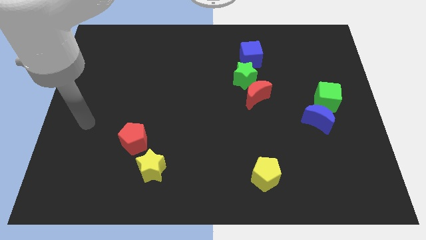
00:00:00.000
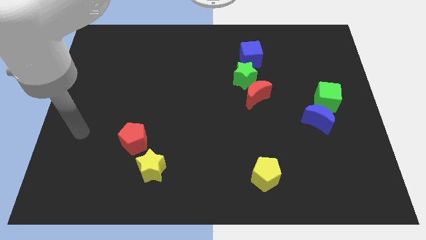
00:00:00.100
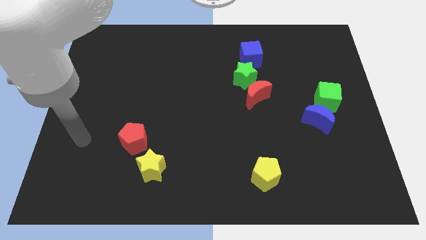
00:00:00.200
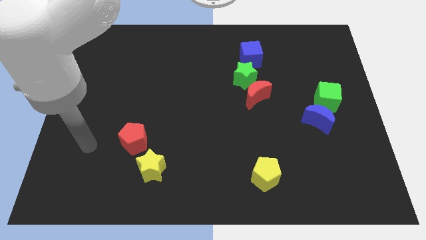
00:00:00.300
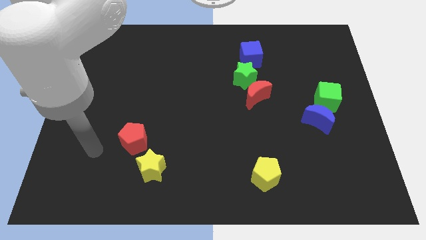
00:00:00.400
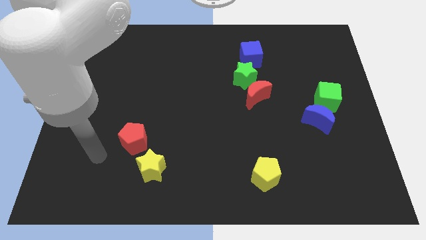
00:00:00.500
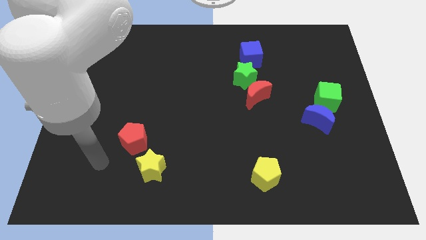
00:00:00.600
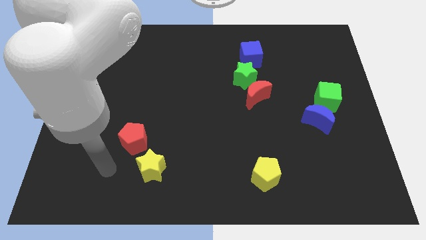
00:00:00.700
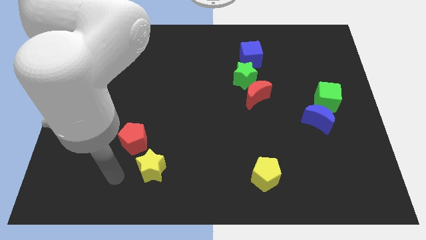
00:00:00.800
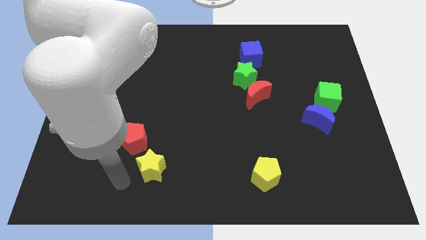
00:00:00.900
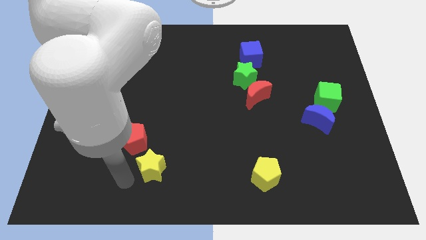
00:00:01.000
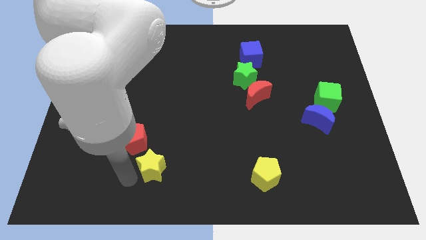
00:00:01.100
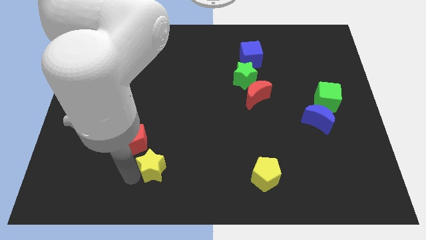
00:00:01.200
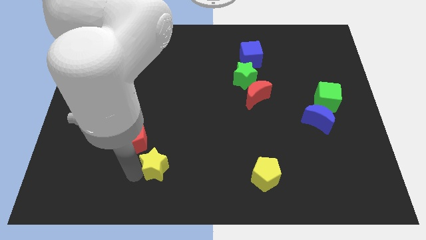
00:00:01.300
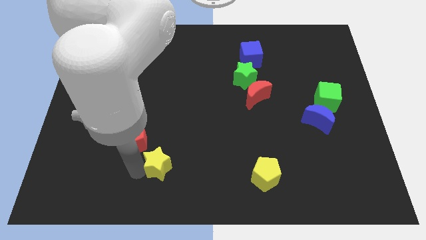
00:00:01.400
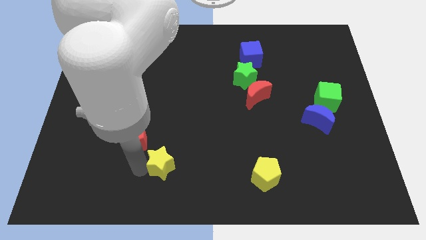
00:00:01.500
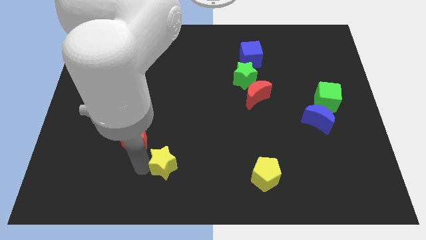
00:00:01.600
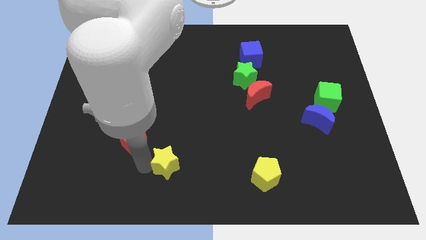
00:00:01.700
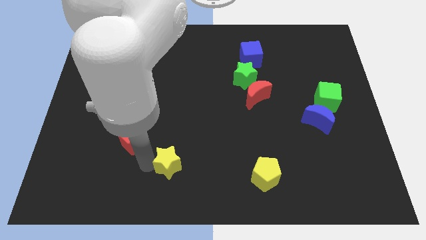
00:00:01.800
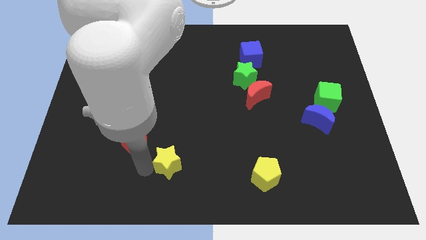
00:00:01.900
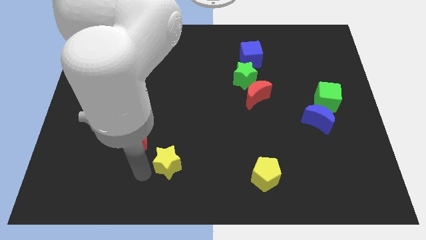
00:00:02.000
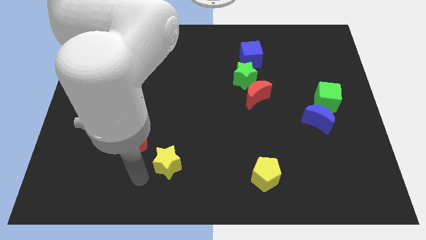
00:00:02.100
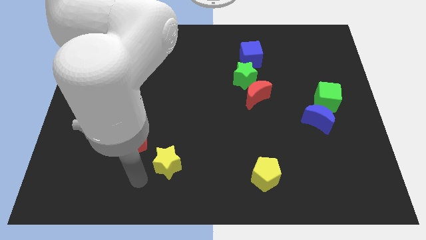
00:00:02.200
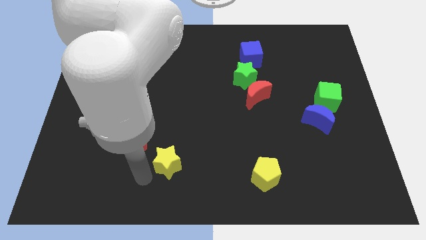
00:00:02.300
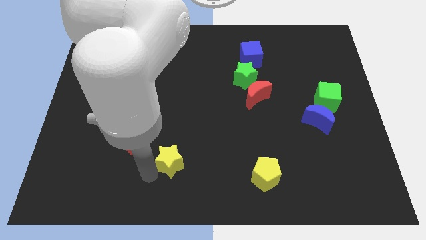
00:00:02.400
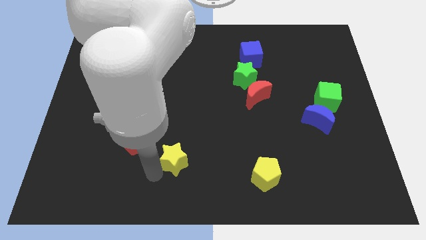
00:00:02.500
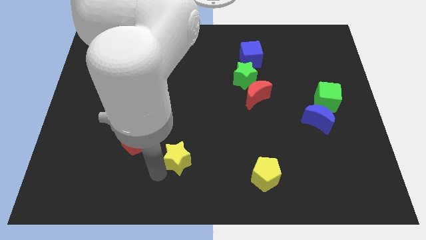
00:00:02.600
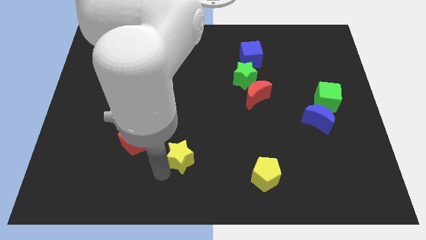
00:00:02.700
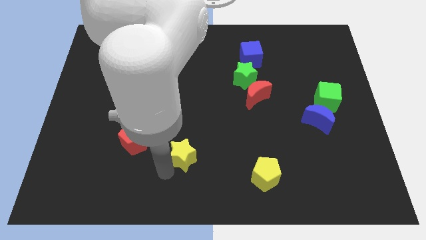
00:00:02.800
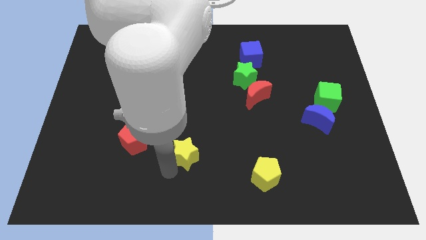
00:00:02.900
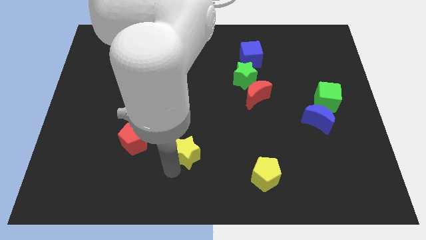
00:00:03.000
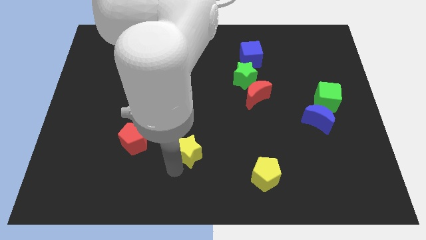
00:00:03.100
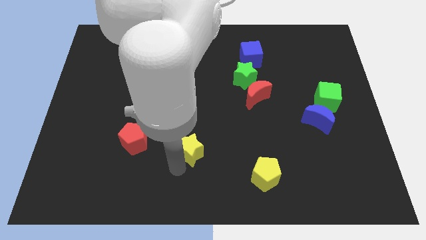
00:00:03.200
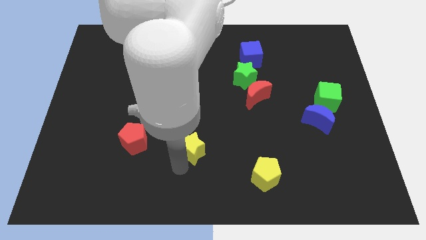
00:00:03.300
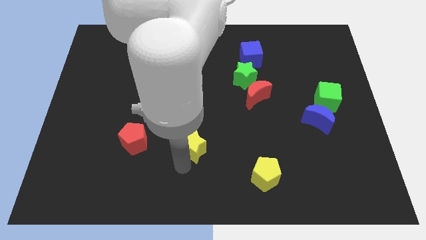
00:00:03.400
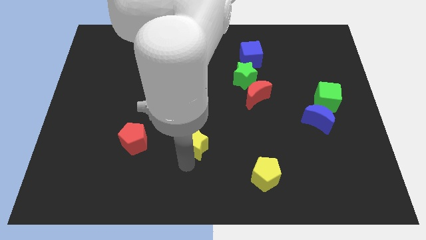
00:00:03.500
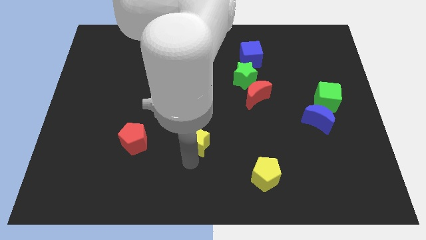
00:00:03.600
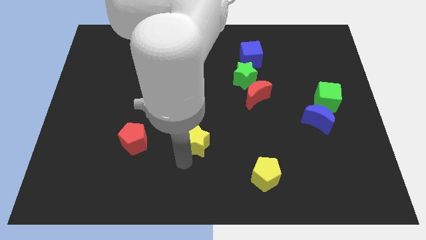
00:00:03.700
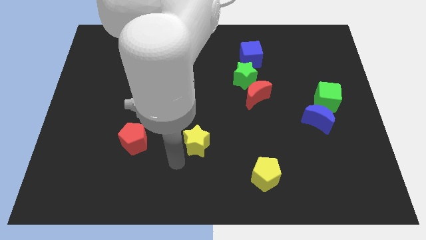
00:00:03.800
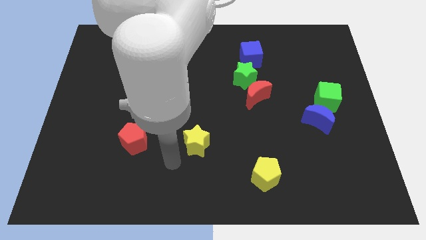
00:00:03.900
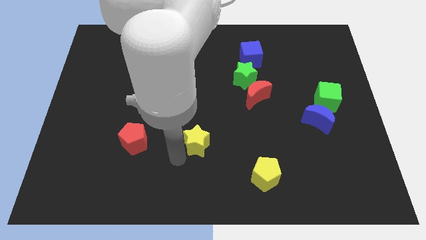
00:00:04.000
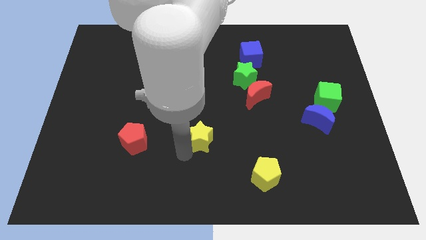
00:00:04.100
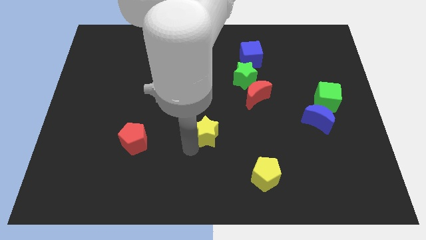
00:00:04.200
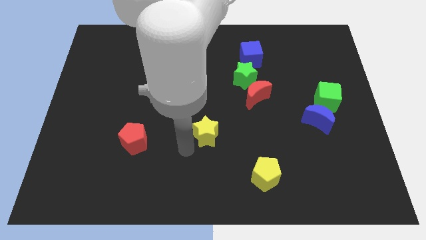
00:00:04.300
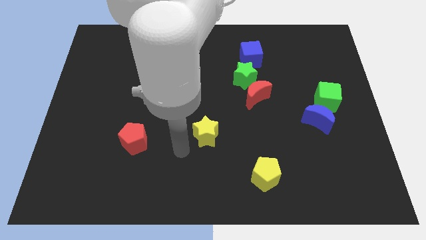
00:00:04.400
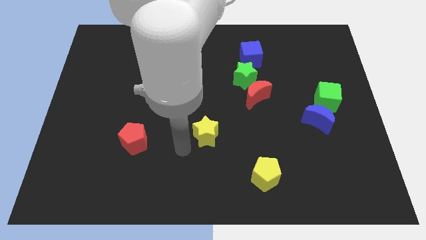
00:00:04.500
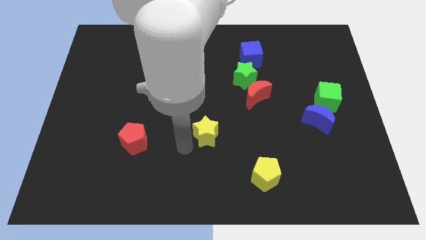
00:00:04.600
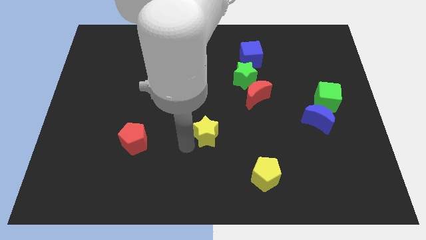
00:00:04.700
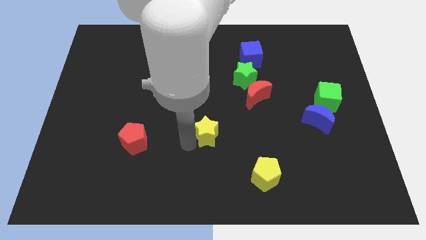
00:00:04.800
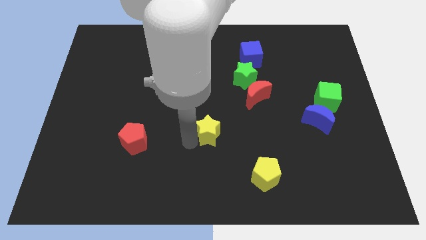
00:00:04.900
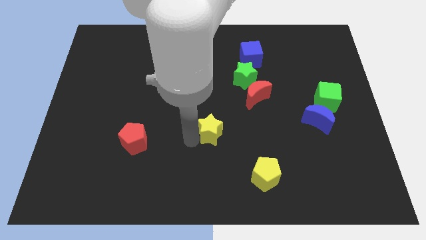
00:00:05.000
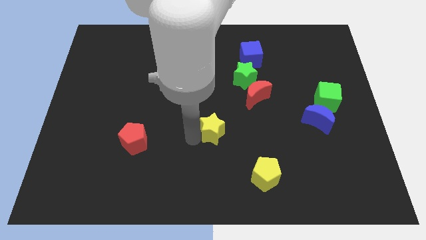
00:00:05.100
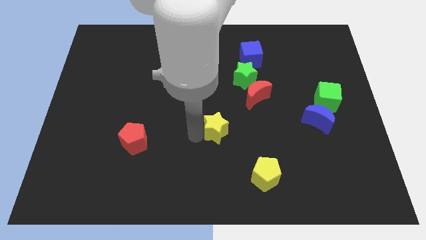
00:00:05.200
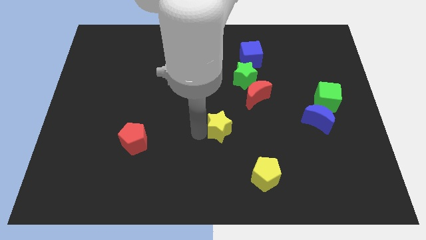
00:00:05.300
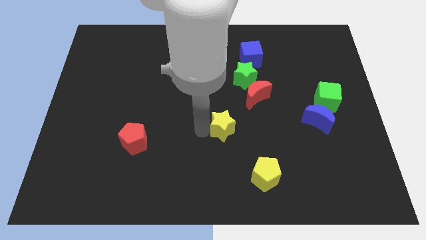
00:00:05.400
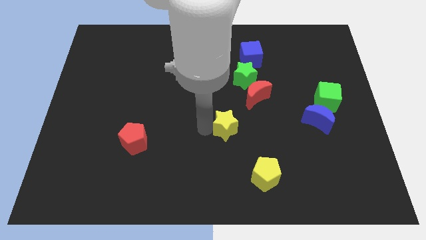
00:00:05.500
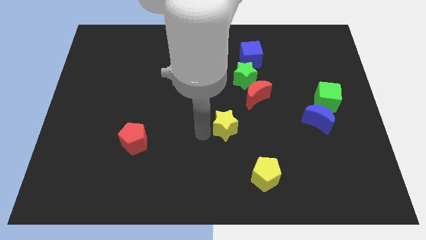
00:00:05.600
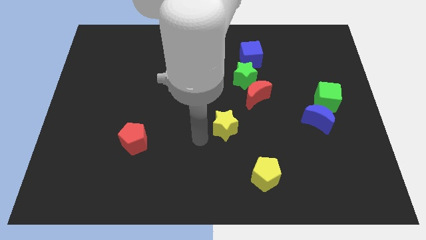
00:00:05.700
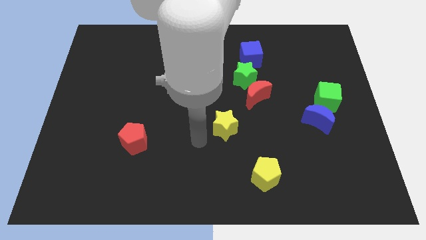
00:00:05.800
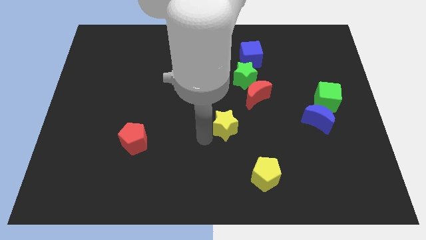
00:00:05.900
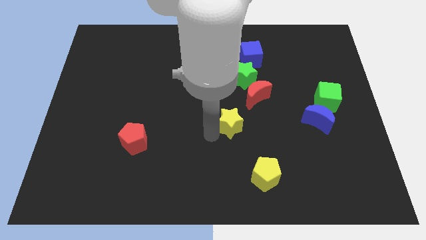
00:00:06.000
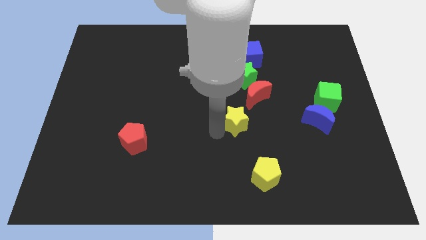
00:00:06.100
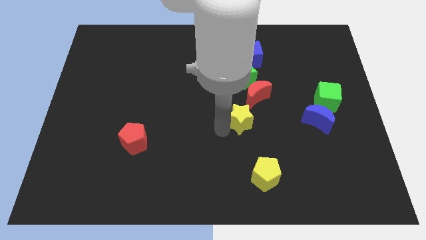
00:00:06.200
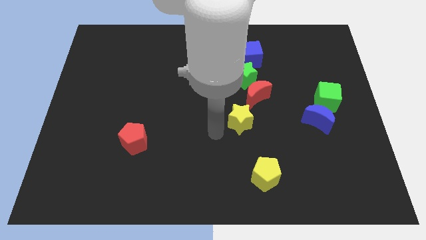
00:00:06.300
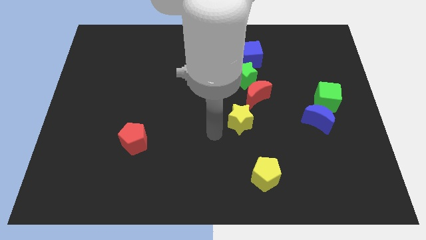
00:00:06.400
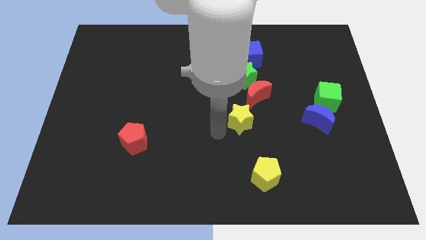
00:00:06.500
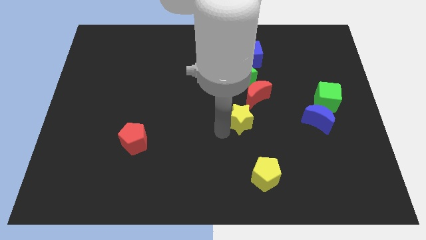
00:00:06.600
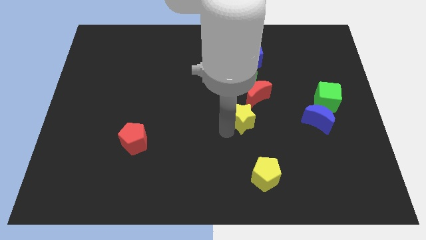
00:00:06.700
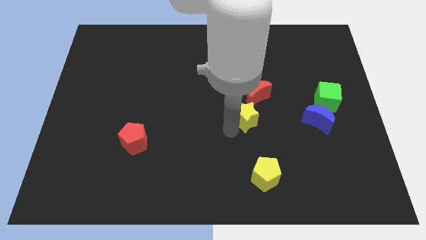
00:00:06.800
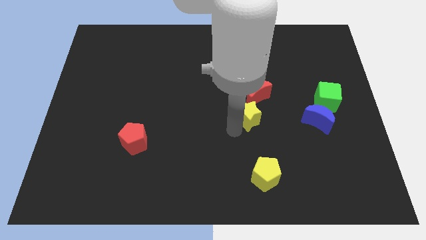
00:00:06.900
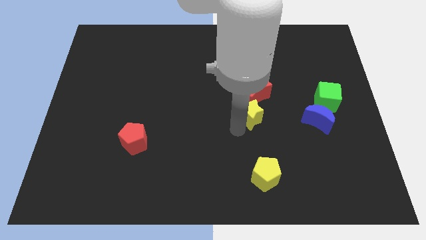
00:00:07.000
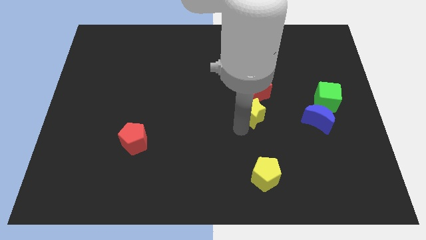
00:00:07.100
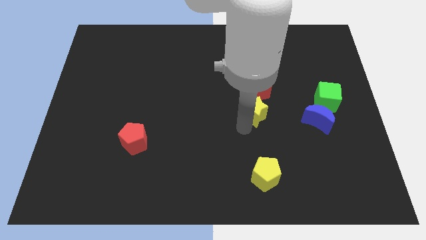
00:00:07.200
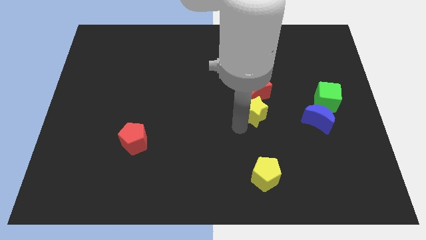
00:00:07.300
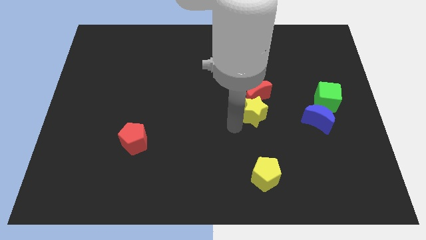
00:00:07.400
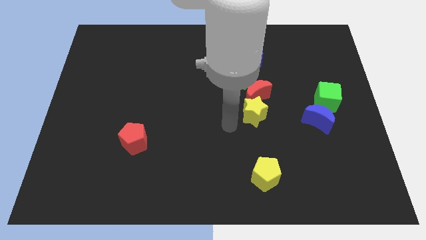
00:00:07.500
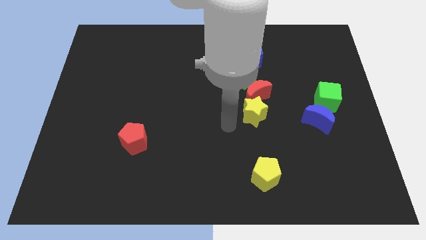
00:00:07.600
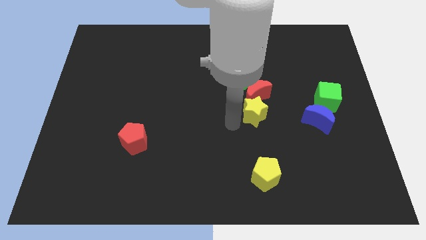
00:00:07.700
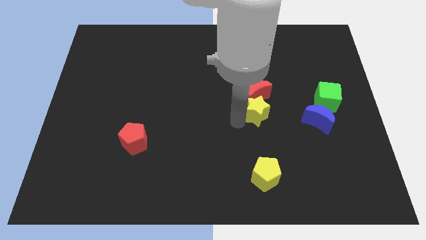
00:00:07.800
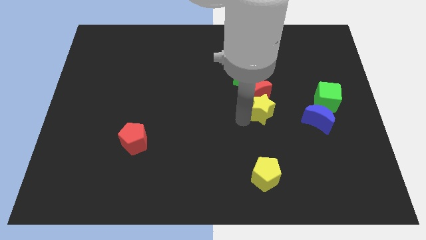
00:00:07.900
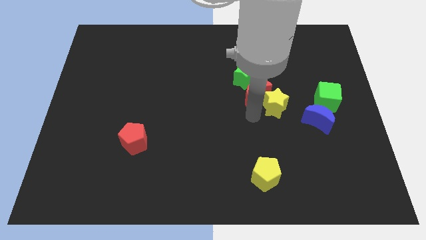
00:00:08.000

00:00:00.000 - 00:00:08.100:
push the yellow star just right of the red moon
